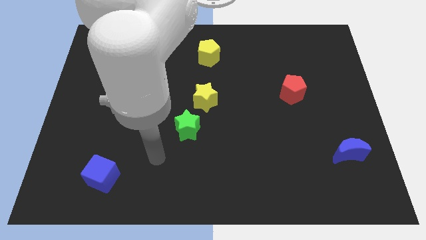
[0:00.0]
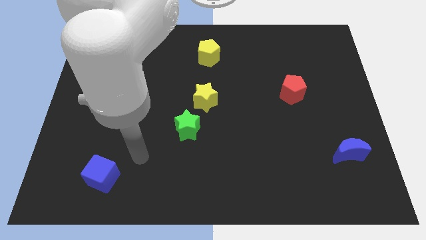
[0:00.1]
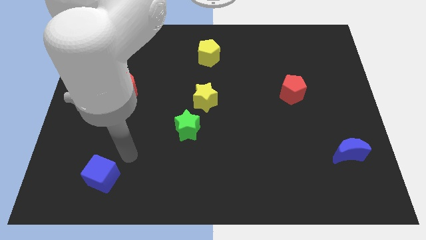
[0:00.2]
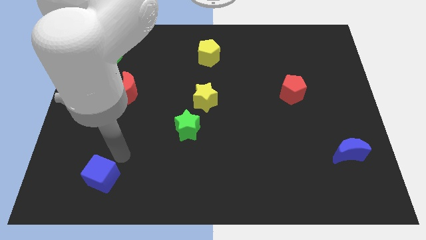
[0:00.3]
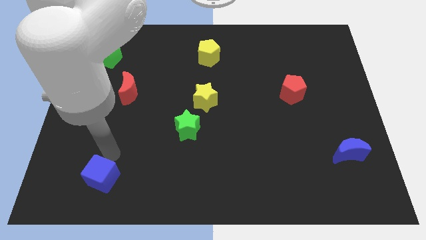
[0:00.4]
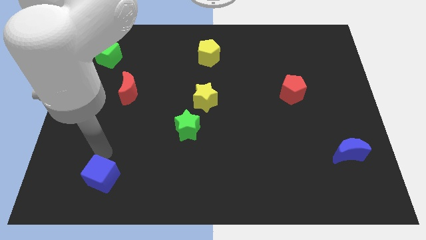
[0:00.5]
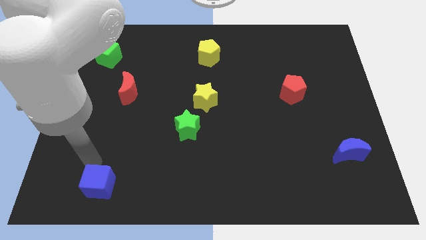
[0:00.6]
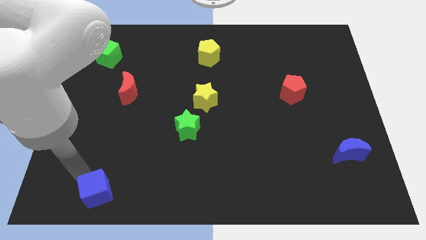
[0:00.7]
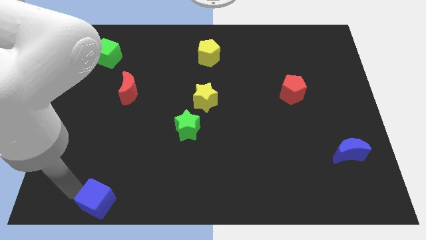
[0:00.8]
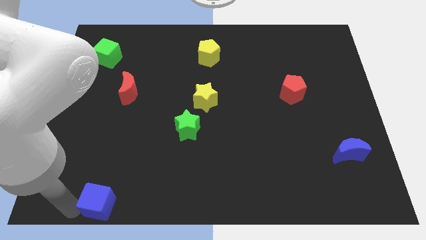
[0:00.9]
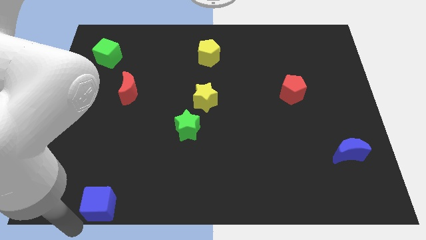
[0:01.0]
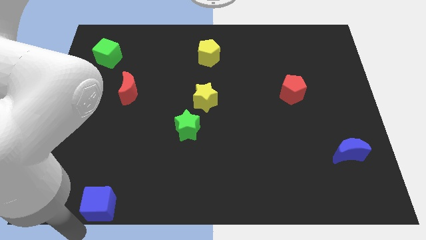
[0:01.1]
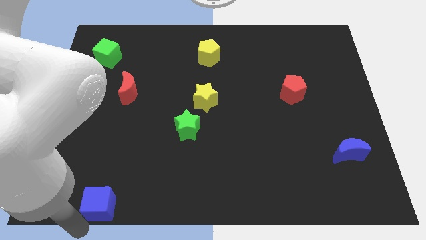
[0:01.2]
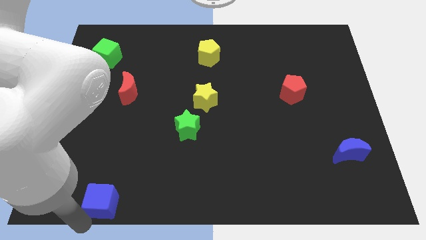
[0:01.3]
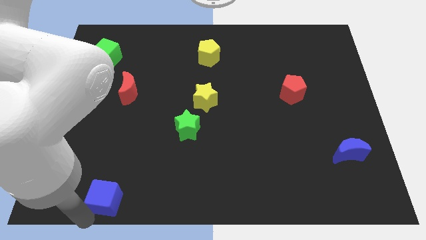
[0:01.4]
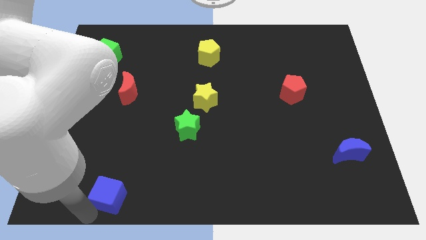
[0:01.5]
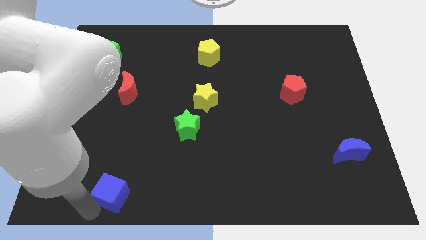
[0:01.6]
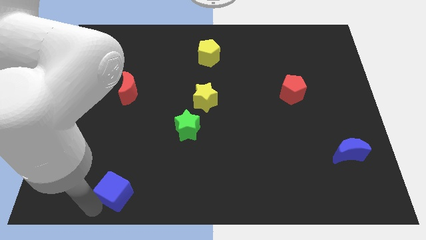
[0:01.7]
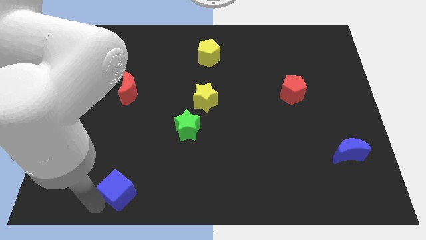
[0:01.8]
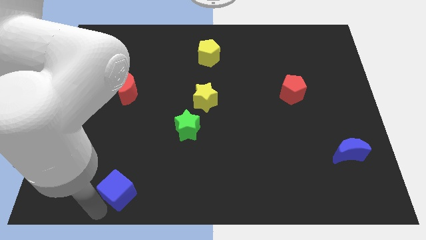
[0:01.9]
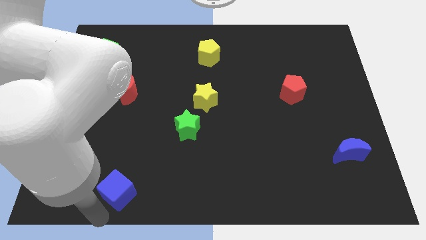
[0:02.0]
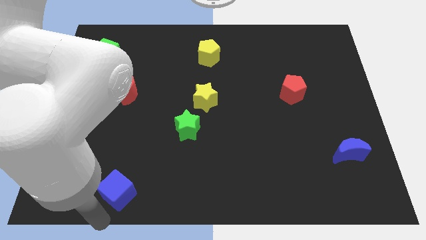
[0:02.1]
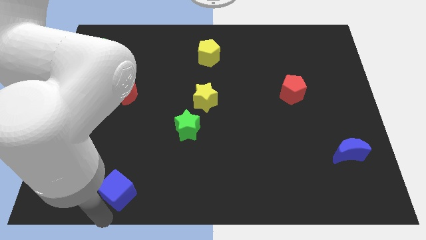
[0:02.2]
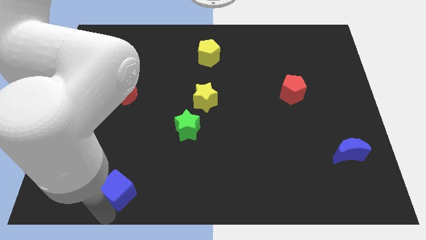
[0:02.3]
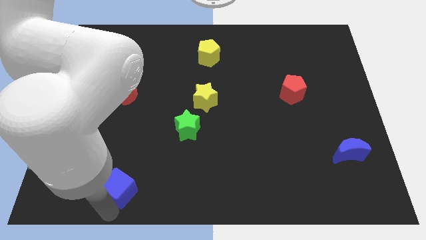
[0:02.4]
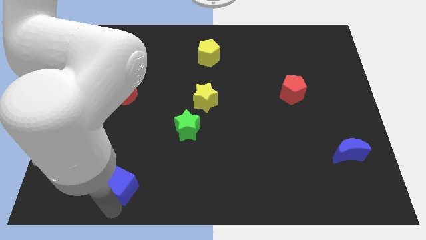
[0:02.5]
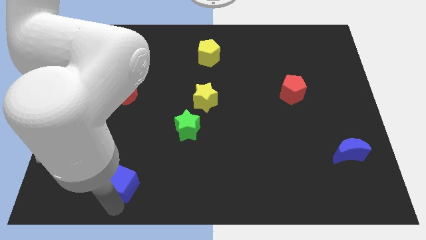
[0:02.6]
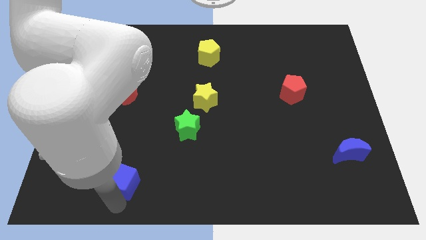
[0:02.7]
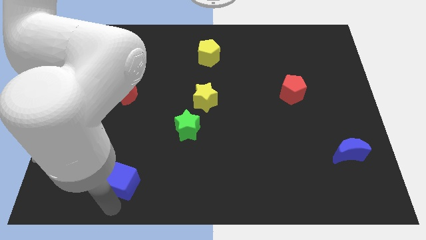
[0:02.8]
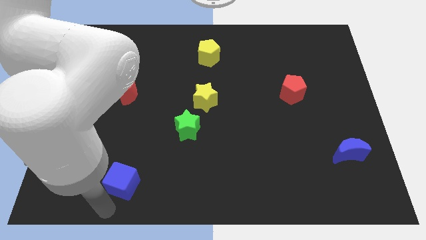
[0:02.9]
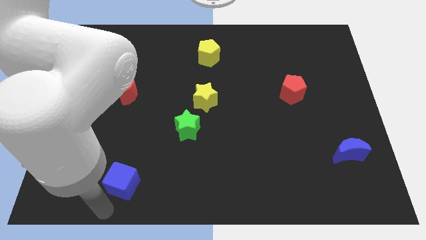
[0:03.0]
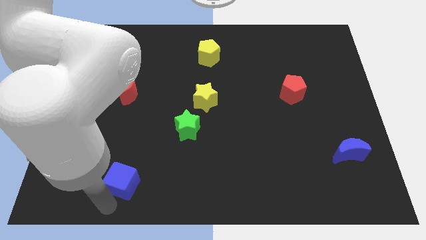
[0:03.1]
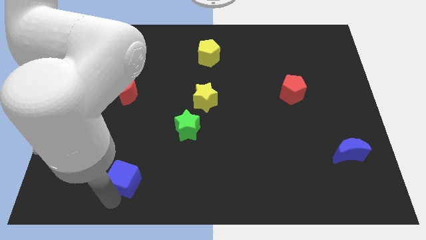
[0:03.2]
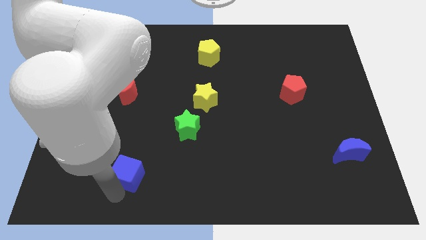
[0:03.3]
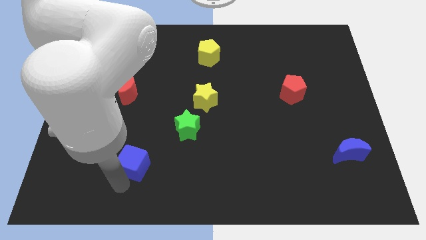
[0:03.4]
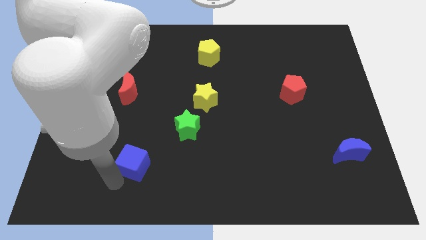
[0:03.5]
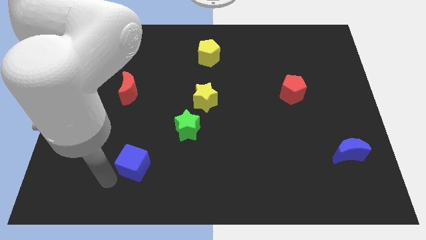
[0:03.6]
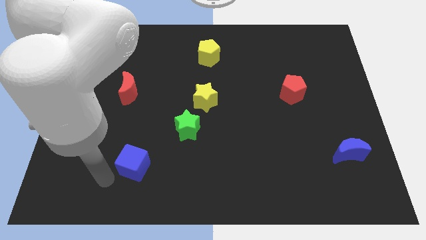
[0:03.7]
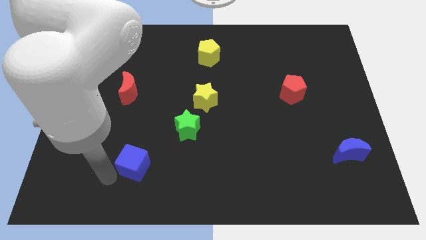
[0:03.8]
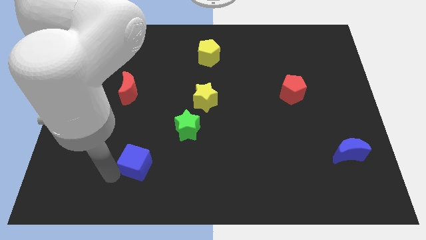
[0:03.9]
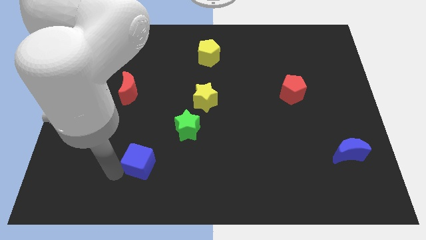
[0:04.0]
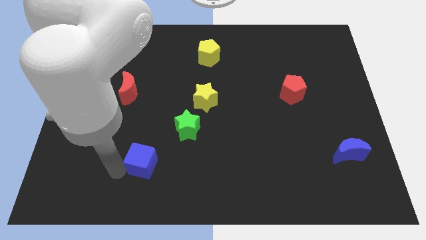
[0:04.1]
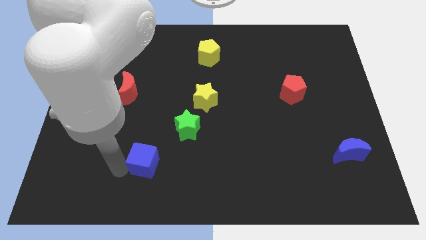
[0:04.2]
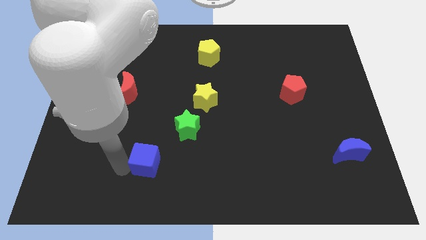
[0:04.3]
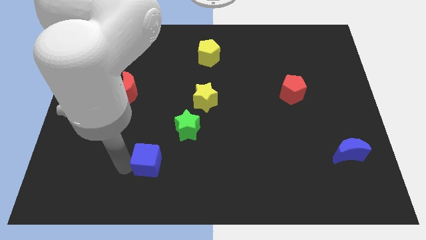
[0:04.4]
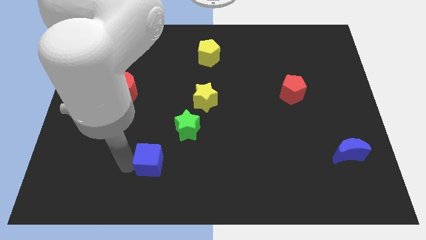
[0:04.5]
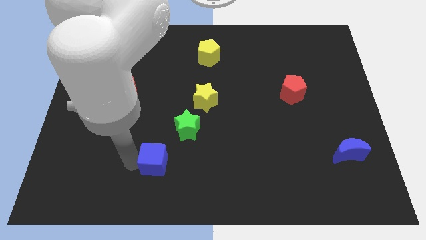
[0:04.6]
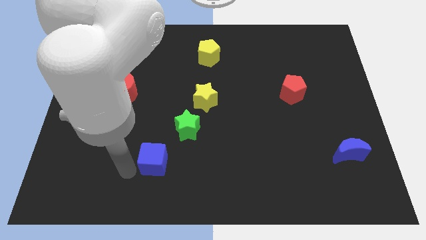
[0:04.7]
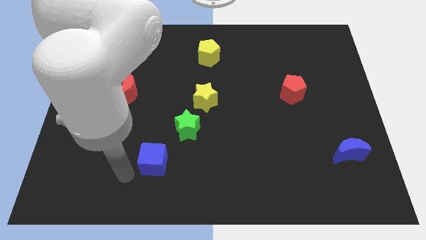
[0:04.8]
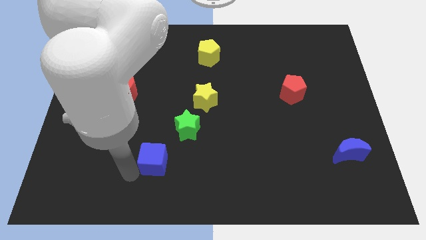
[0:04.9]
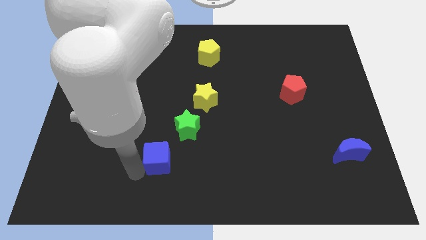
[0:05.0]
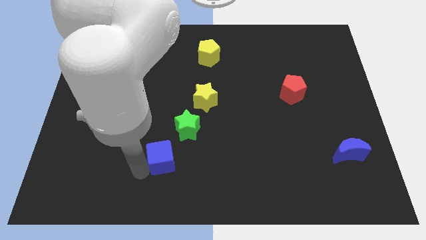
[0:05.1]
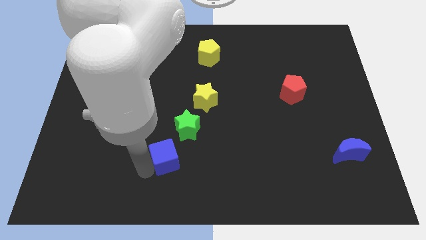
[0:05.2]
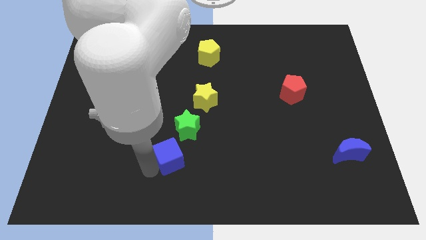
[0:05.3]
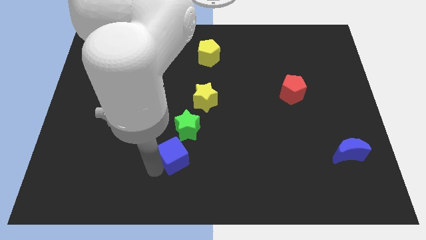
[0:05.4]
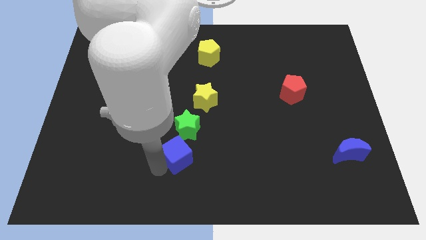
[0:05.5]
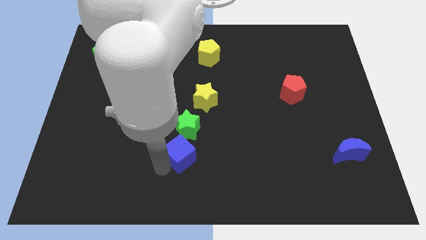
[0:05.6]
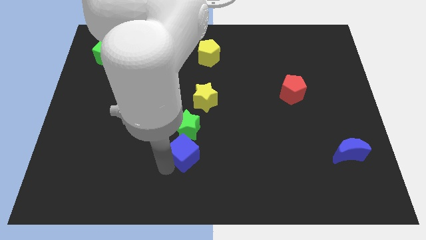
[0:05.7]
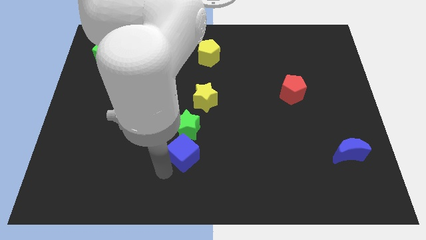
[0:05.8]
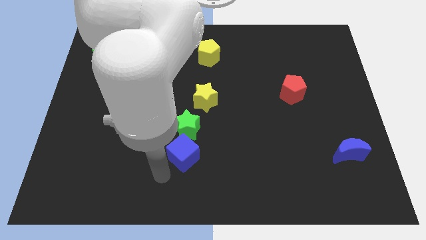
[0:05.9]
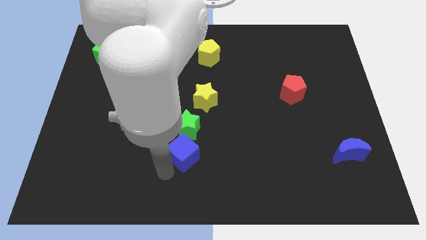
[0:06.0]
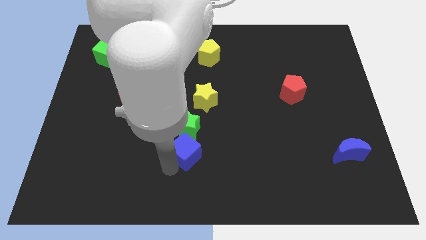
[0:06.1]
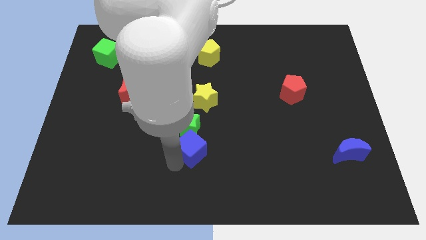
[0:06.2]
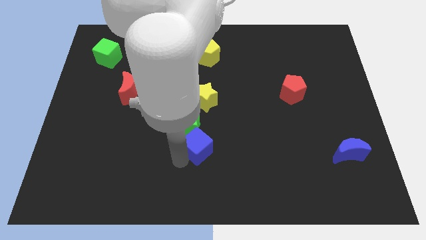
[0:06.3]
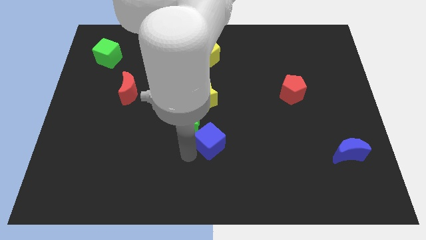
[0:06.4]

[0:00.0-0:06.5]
move the blue cube just right of the green star

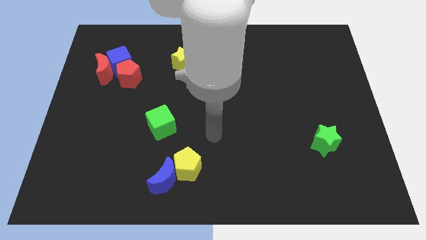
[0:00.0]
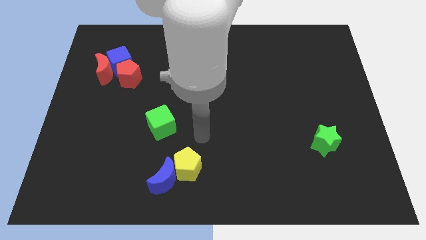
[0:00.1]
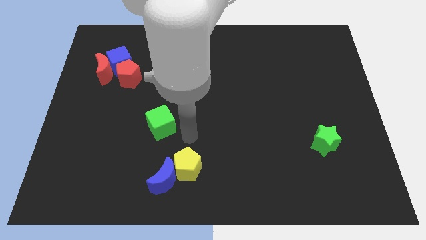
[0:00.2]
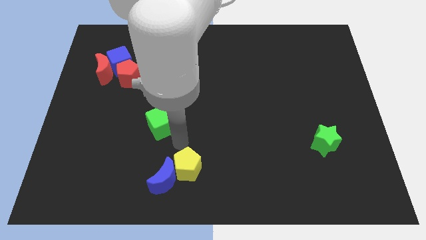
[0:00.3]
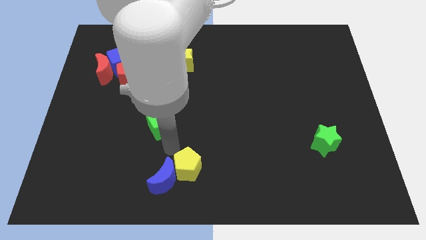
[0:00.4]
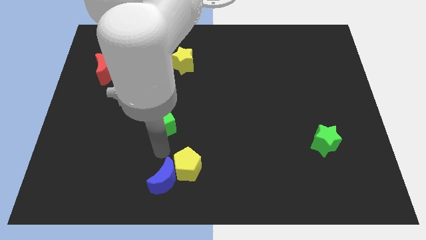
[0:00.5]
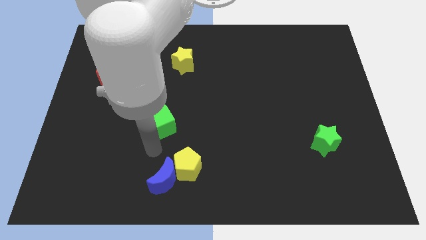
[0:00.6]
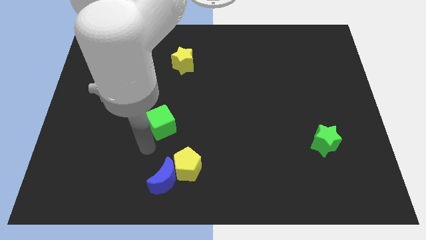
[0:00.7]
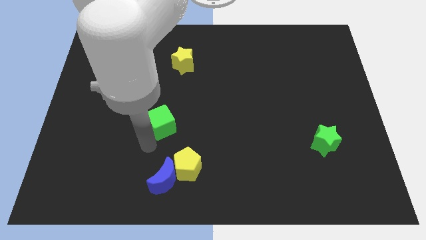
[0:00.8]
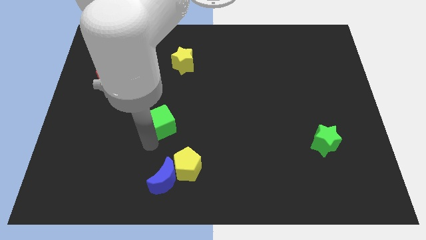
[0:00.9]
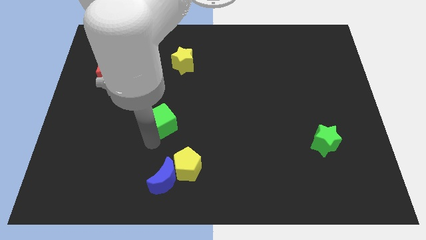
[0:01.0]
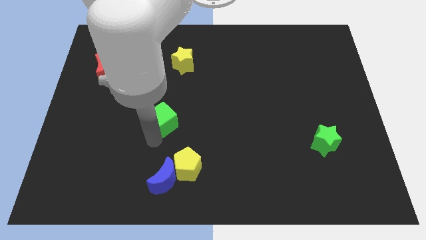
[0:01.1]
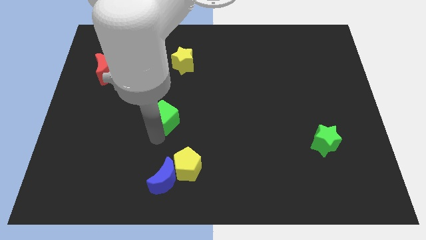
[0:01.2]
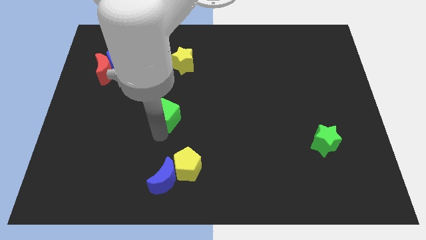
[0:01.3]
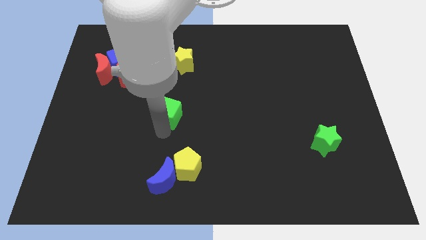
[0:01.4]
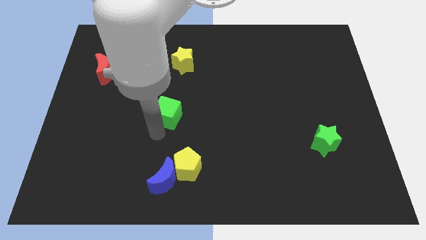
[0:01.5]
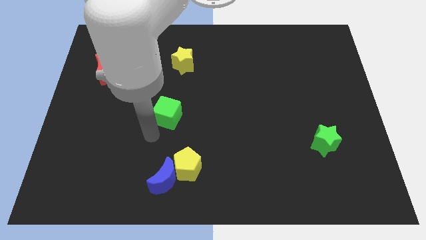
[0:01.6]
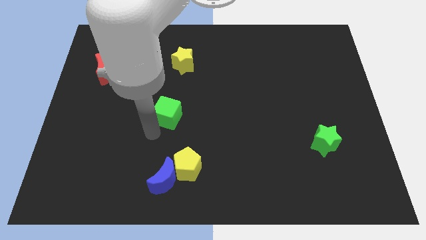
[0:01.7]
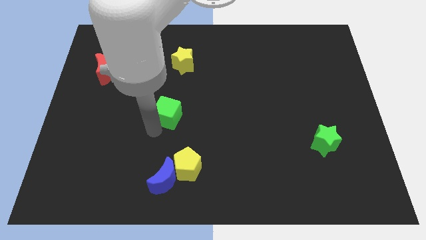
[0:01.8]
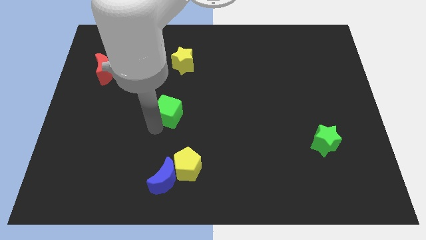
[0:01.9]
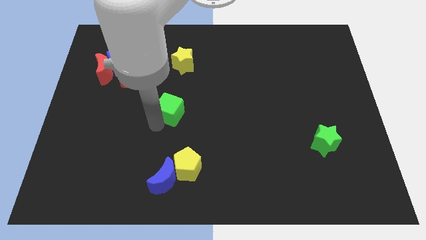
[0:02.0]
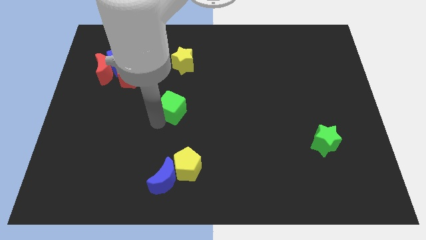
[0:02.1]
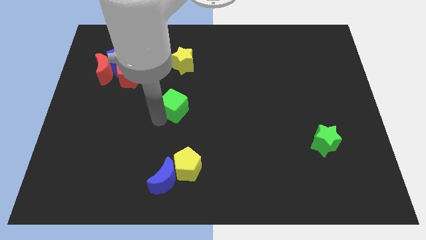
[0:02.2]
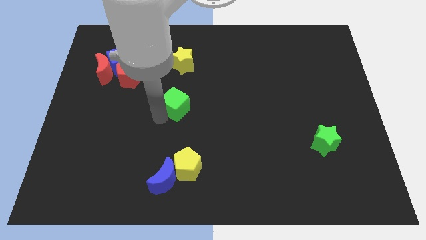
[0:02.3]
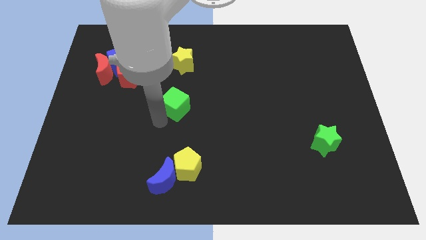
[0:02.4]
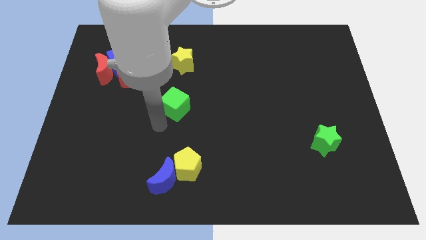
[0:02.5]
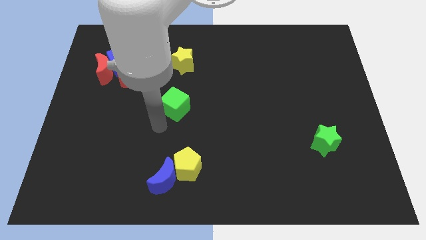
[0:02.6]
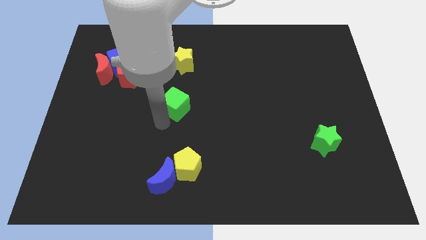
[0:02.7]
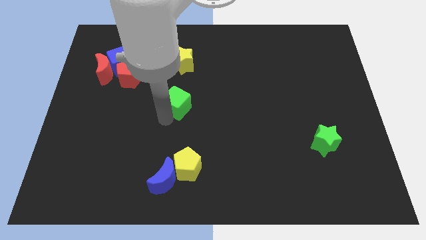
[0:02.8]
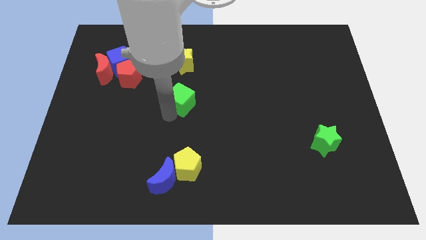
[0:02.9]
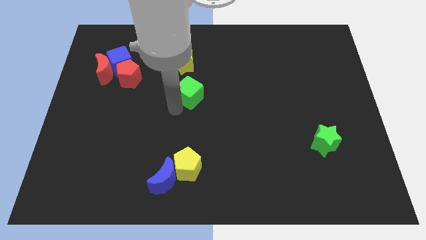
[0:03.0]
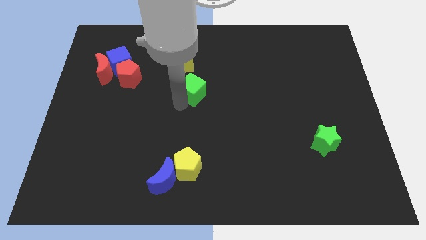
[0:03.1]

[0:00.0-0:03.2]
put the green cube to the bottom right side of the yellow star
